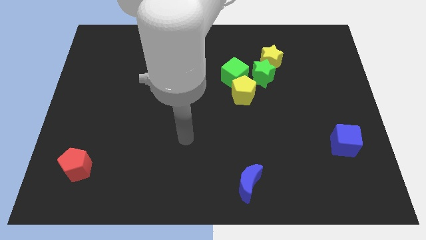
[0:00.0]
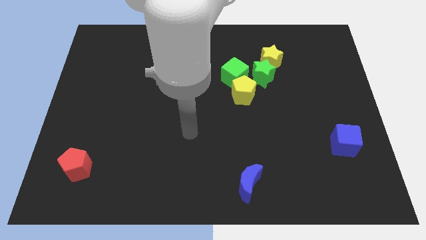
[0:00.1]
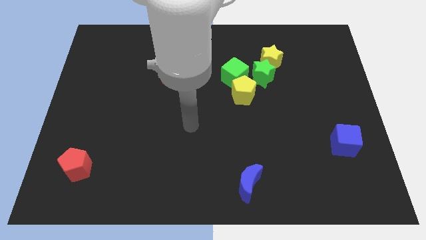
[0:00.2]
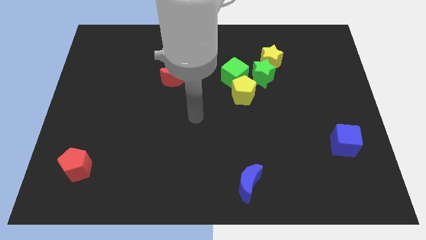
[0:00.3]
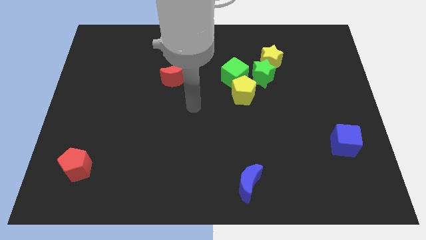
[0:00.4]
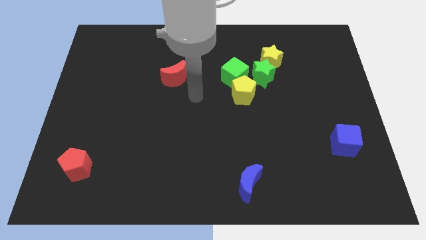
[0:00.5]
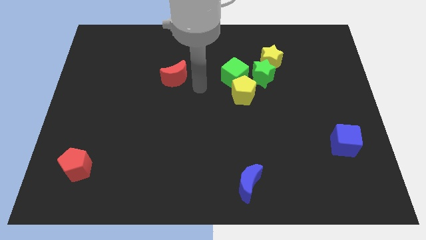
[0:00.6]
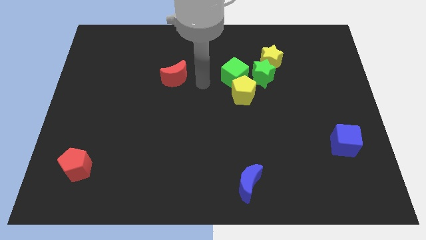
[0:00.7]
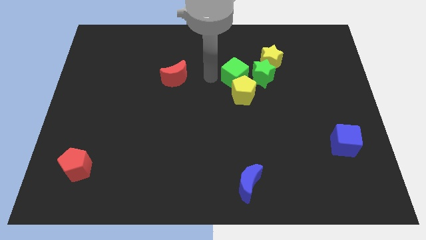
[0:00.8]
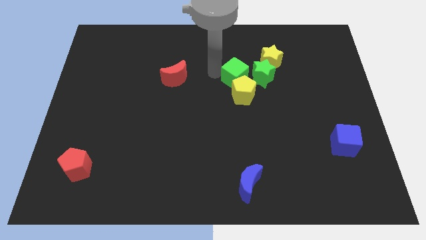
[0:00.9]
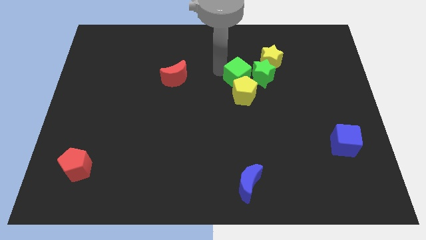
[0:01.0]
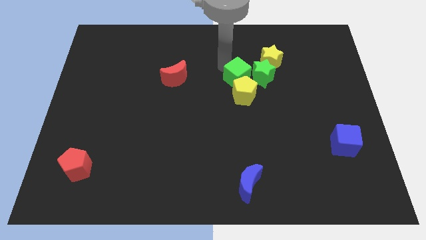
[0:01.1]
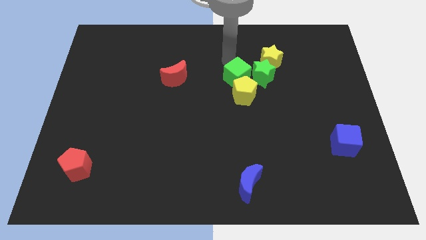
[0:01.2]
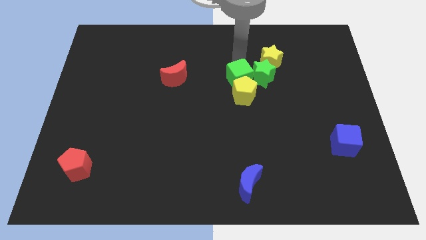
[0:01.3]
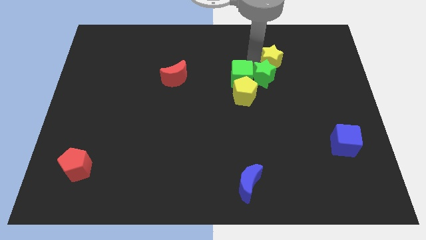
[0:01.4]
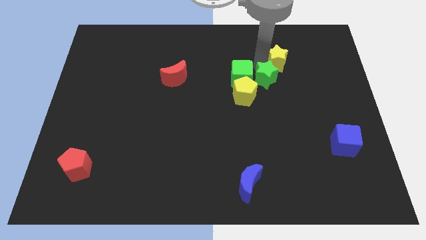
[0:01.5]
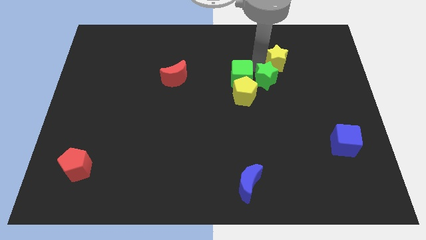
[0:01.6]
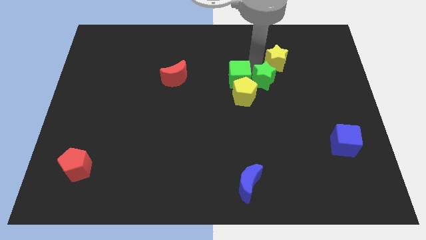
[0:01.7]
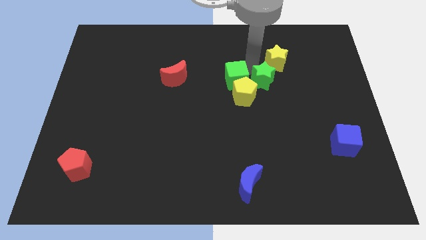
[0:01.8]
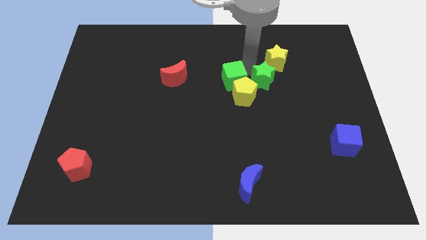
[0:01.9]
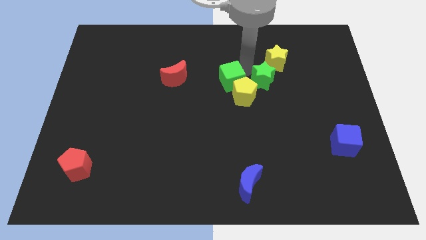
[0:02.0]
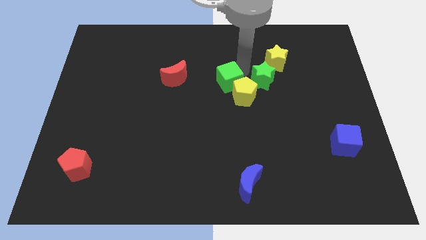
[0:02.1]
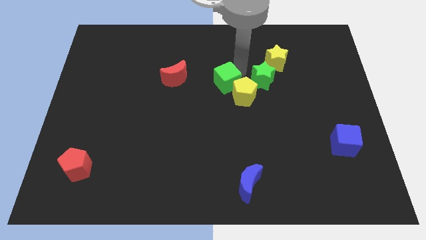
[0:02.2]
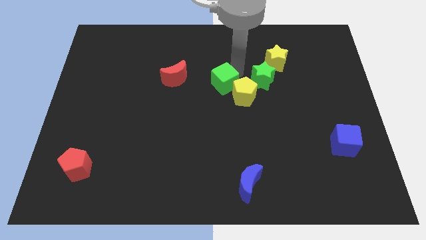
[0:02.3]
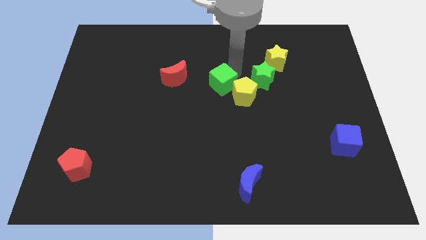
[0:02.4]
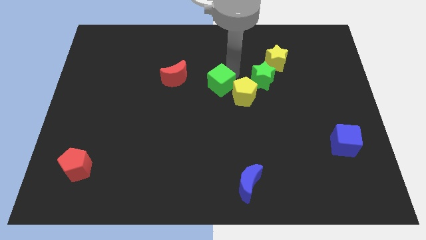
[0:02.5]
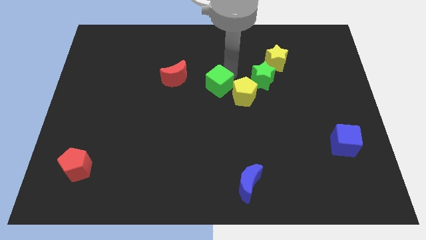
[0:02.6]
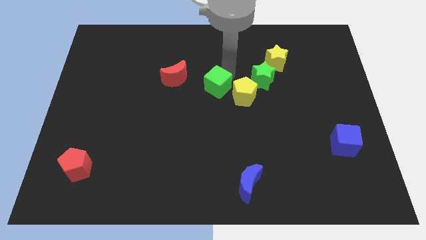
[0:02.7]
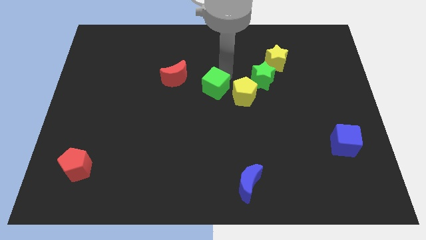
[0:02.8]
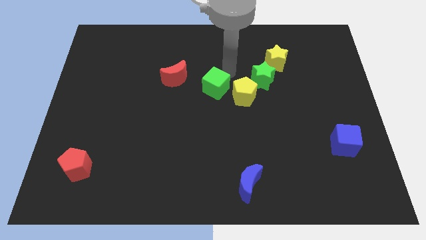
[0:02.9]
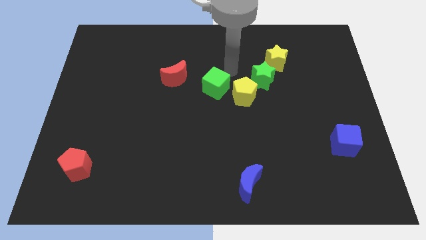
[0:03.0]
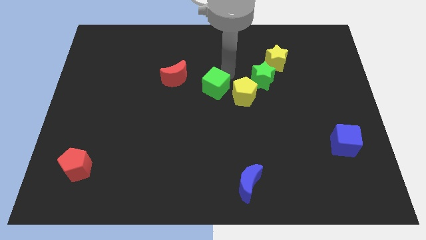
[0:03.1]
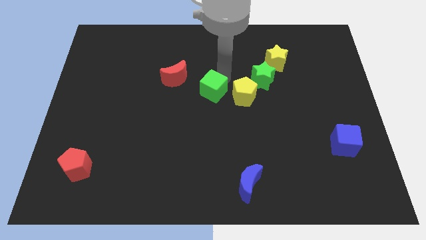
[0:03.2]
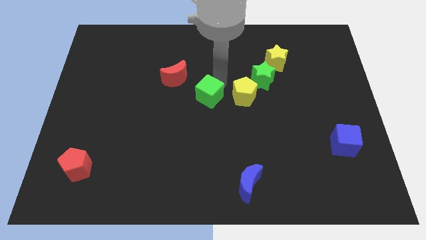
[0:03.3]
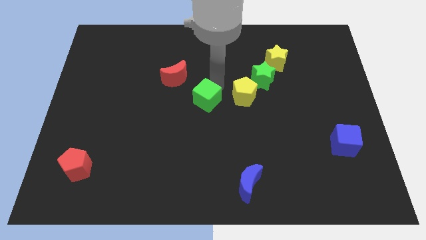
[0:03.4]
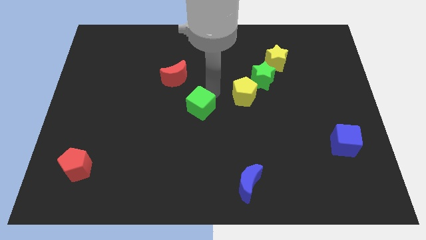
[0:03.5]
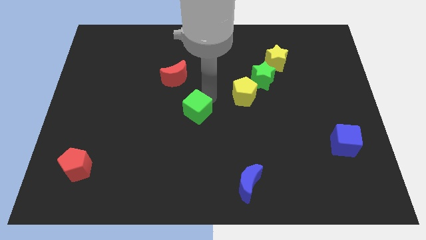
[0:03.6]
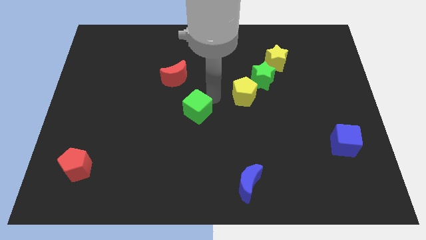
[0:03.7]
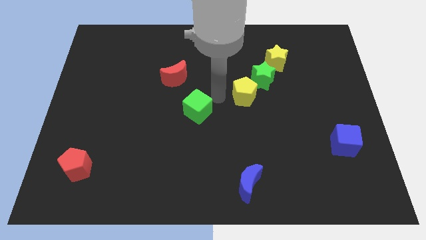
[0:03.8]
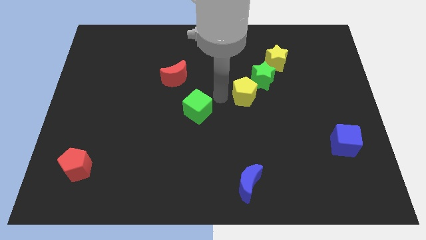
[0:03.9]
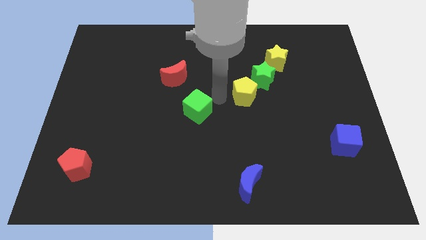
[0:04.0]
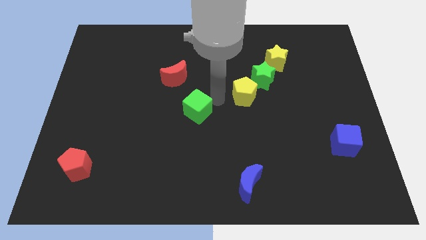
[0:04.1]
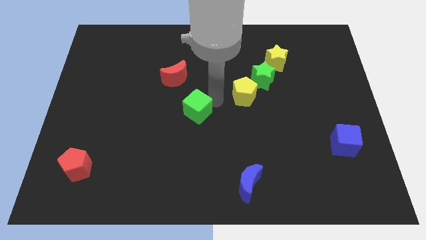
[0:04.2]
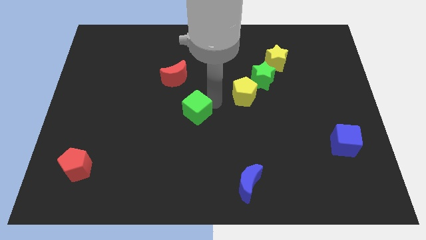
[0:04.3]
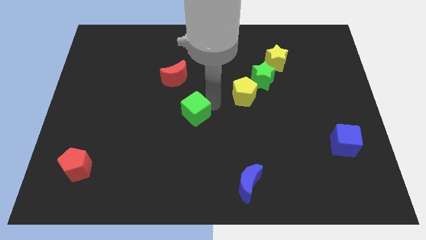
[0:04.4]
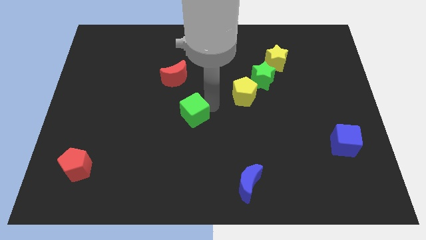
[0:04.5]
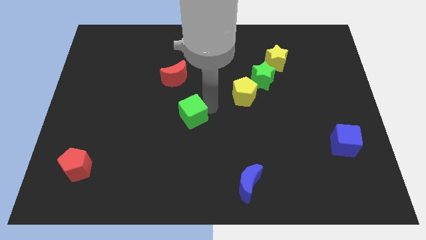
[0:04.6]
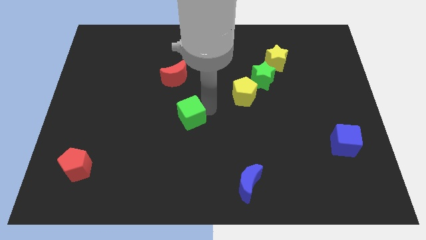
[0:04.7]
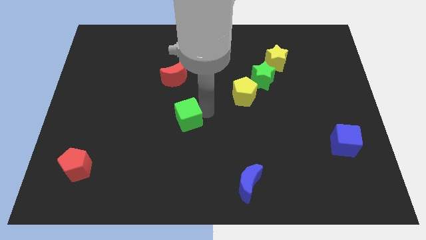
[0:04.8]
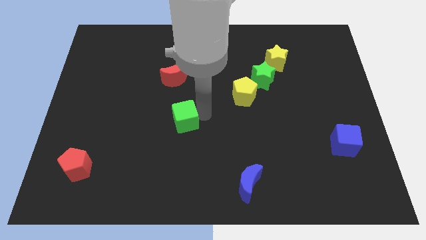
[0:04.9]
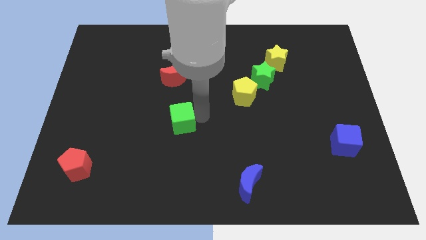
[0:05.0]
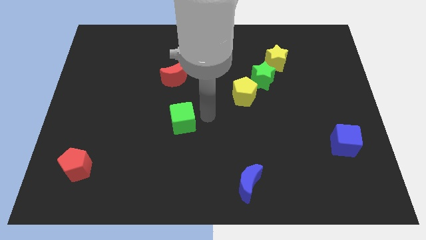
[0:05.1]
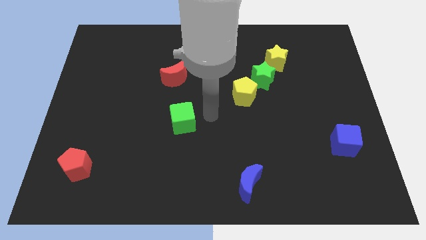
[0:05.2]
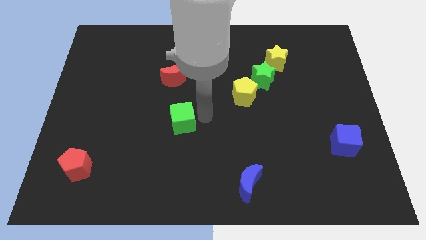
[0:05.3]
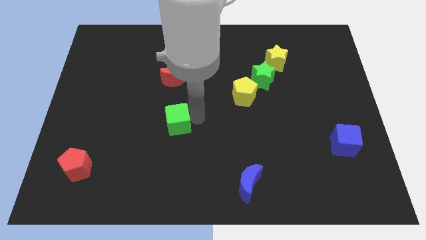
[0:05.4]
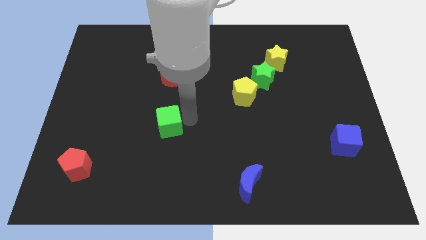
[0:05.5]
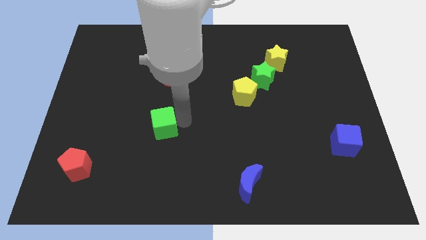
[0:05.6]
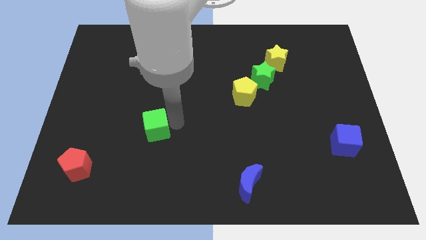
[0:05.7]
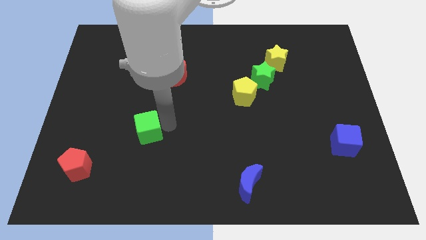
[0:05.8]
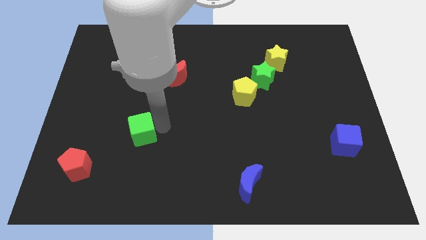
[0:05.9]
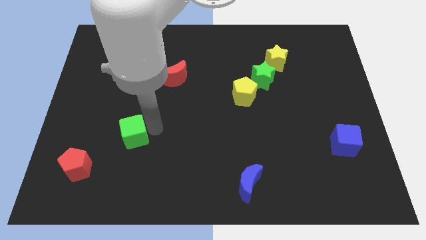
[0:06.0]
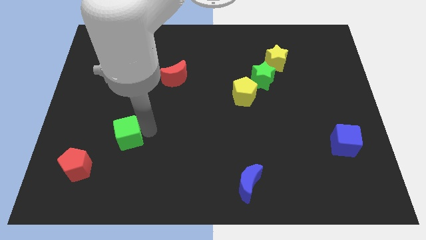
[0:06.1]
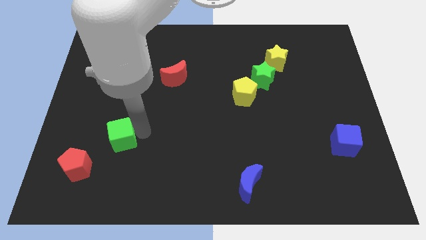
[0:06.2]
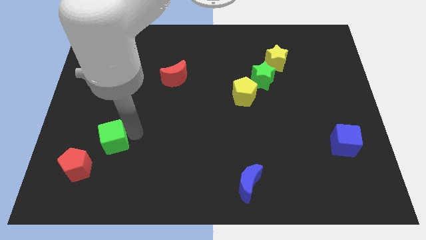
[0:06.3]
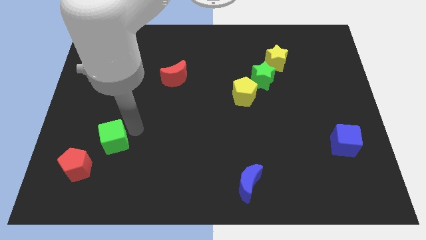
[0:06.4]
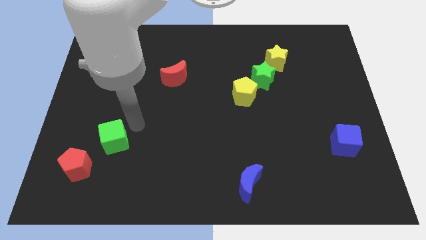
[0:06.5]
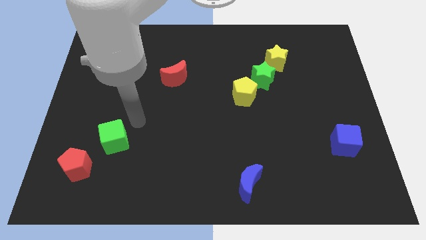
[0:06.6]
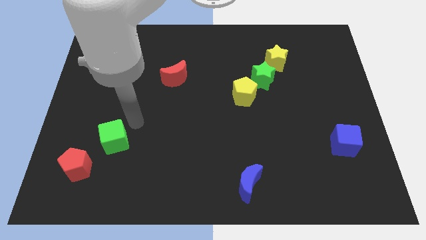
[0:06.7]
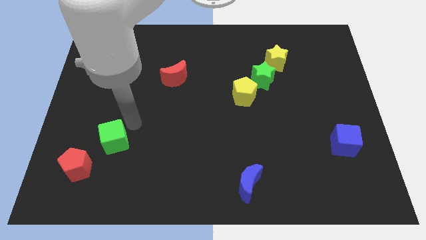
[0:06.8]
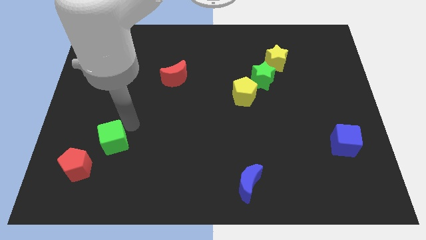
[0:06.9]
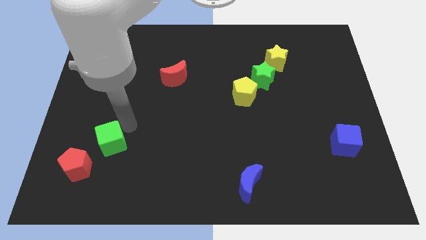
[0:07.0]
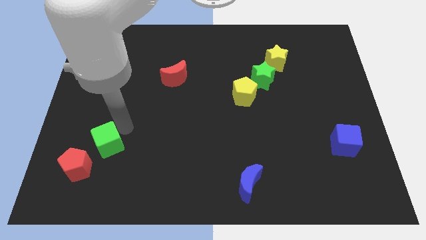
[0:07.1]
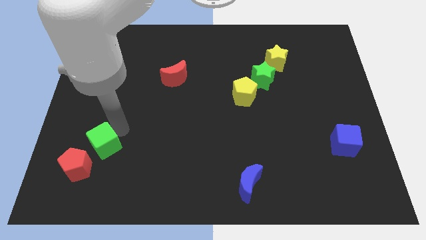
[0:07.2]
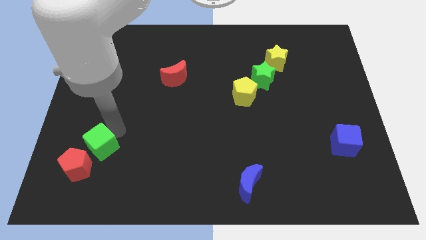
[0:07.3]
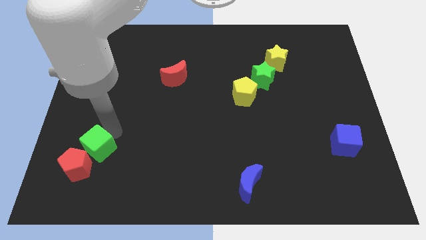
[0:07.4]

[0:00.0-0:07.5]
move the green cube to the red pentagon
